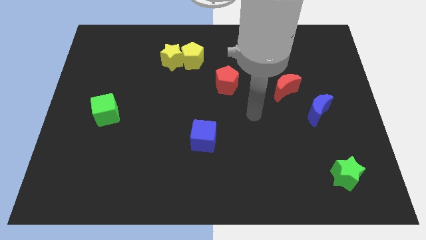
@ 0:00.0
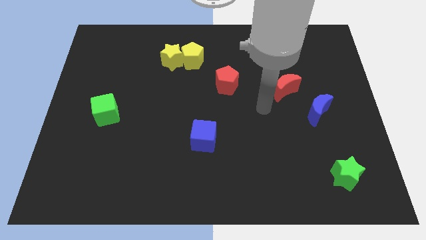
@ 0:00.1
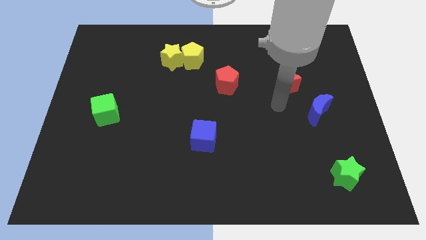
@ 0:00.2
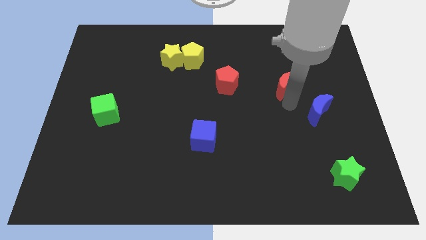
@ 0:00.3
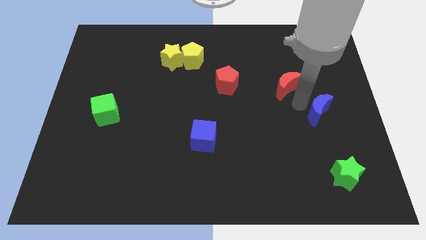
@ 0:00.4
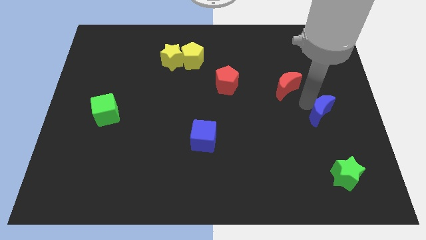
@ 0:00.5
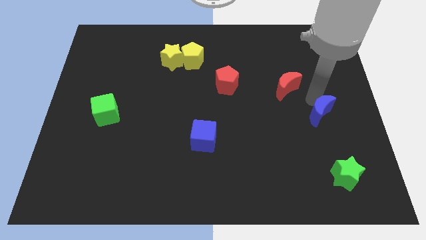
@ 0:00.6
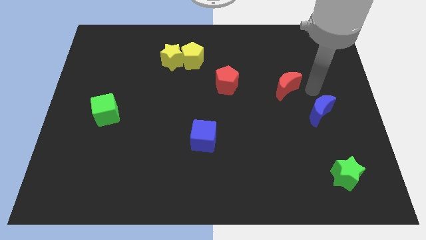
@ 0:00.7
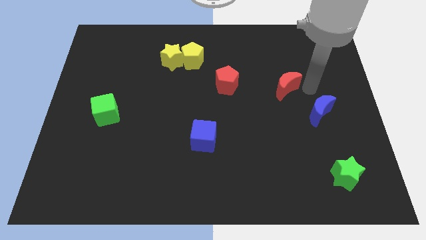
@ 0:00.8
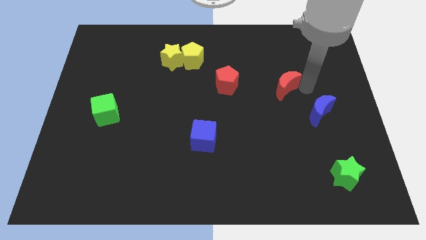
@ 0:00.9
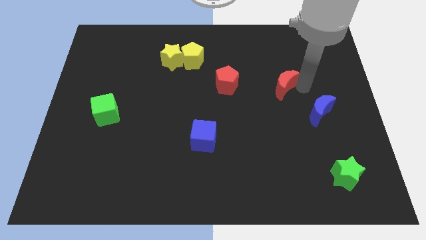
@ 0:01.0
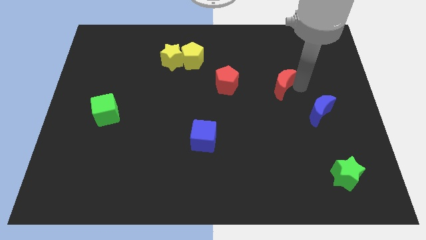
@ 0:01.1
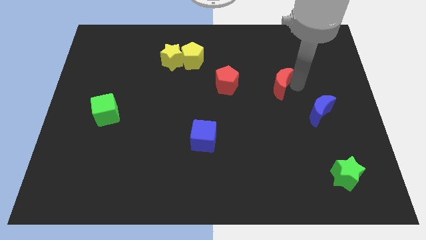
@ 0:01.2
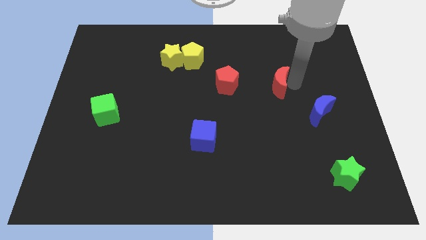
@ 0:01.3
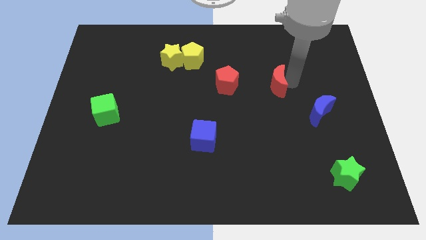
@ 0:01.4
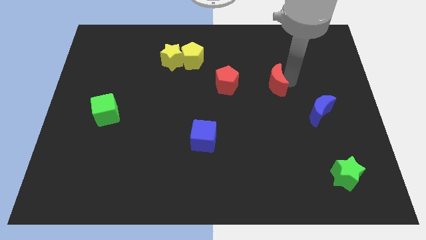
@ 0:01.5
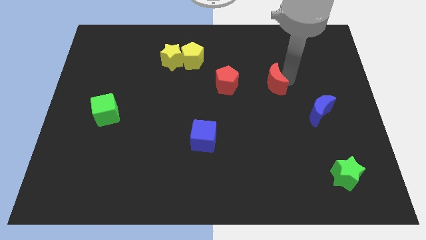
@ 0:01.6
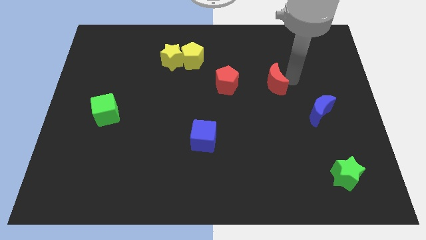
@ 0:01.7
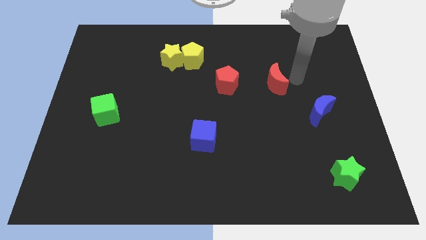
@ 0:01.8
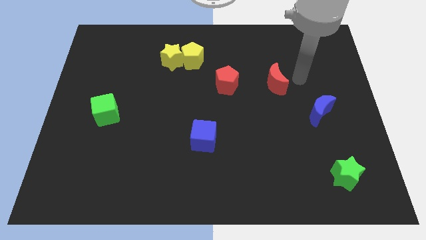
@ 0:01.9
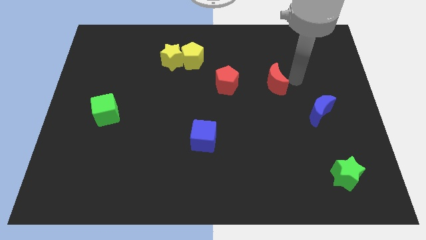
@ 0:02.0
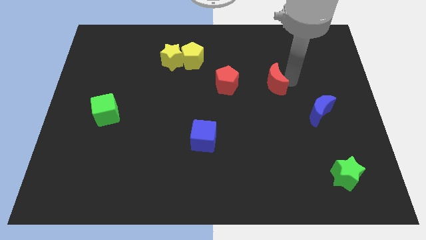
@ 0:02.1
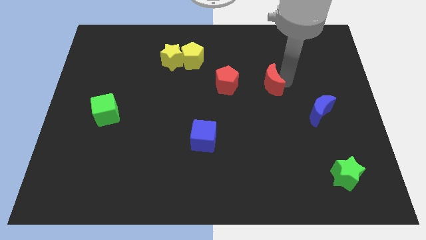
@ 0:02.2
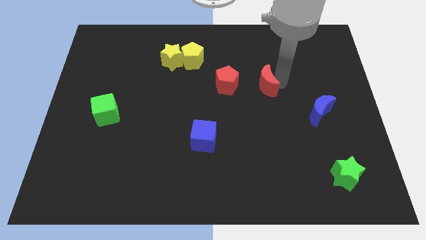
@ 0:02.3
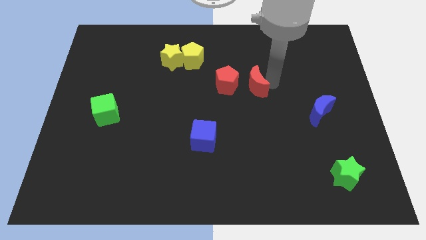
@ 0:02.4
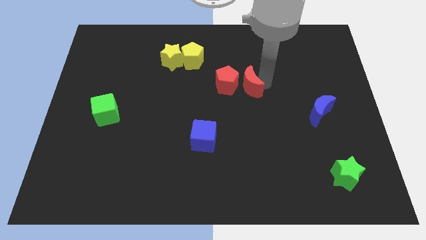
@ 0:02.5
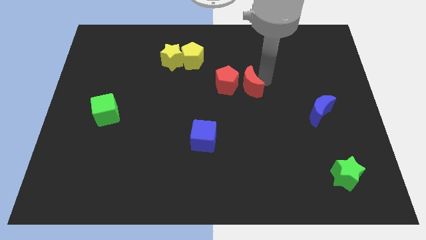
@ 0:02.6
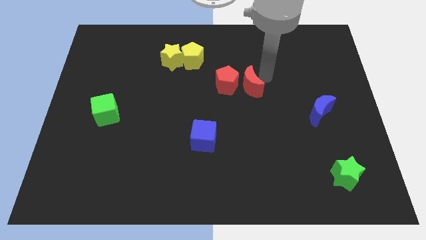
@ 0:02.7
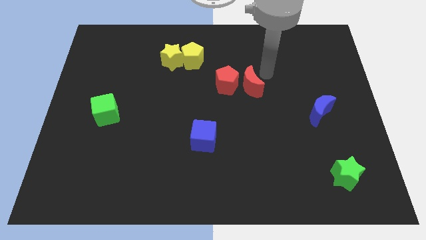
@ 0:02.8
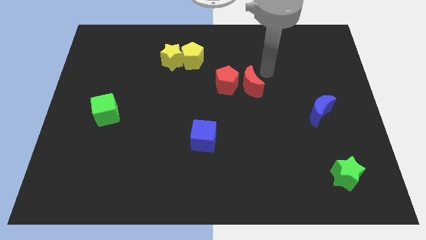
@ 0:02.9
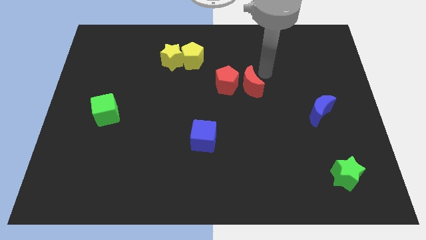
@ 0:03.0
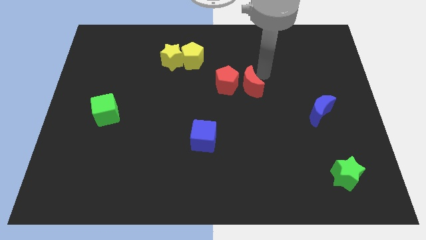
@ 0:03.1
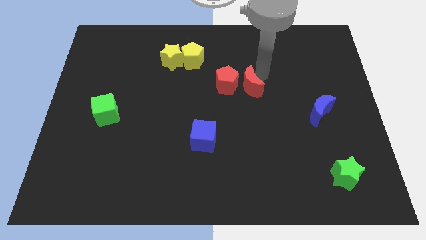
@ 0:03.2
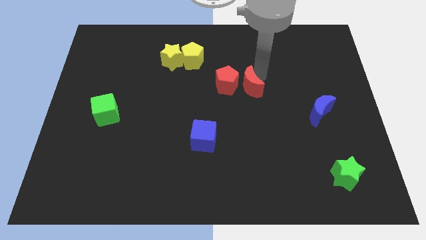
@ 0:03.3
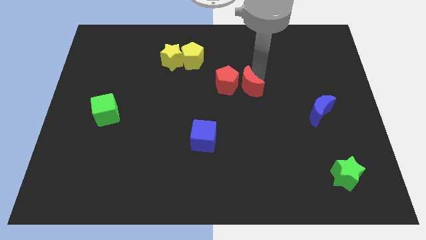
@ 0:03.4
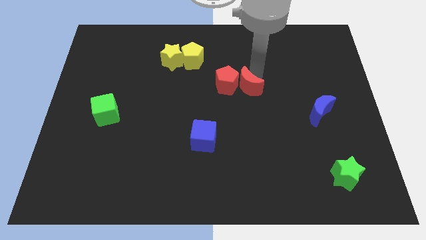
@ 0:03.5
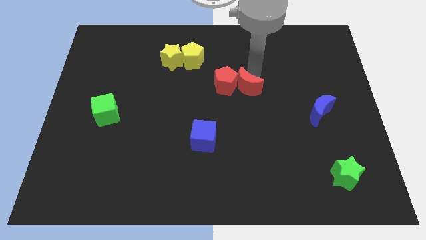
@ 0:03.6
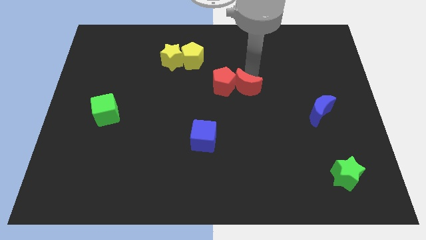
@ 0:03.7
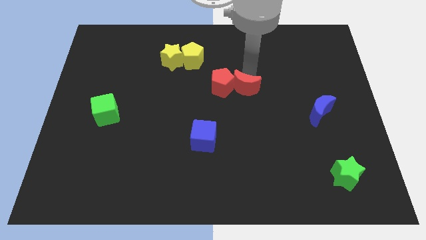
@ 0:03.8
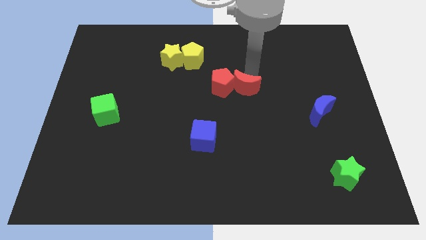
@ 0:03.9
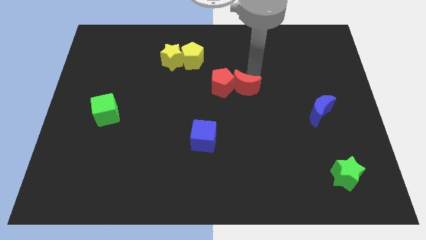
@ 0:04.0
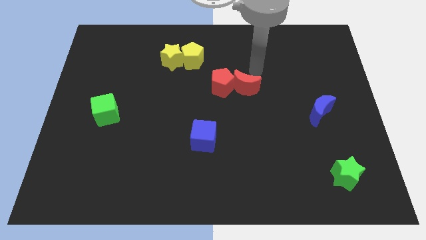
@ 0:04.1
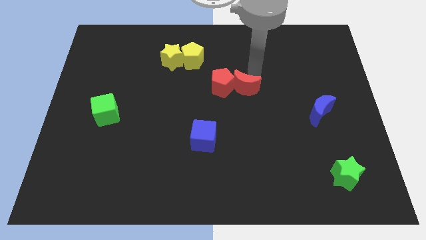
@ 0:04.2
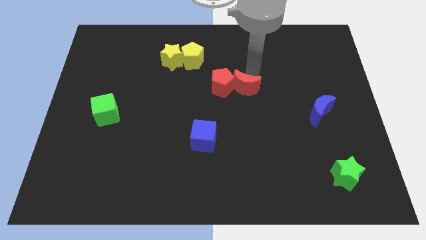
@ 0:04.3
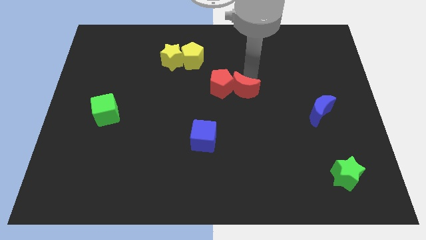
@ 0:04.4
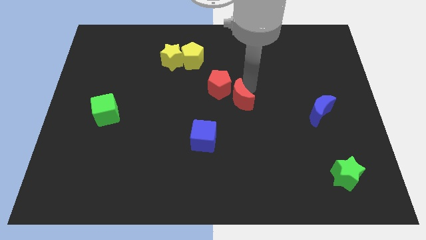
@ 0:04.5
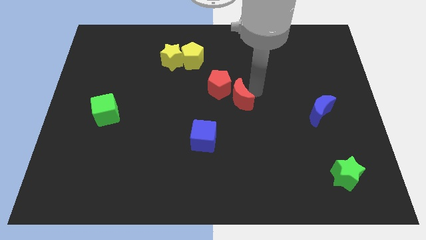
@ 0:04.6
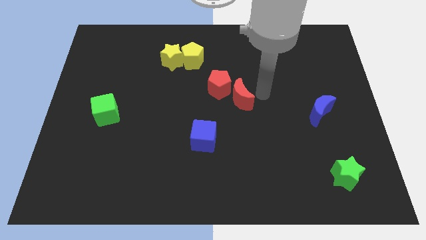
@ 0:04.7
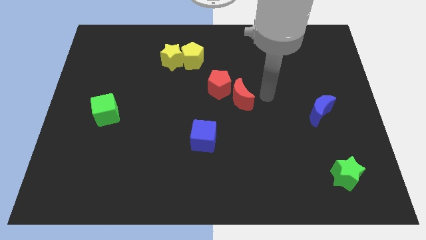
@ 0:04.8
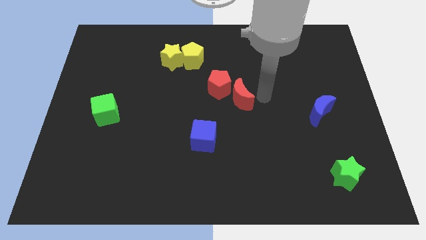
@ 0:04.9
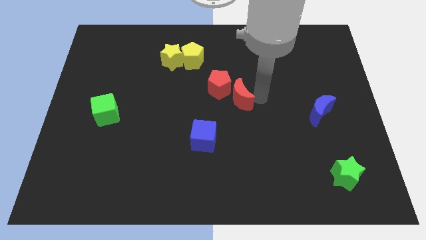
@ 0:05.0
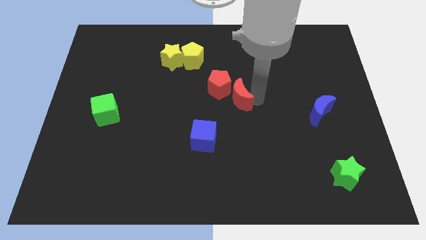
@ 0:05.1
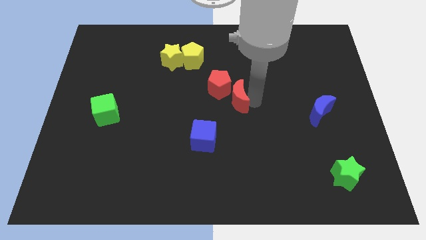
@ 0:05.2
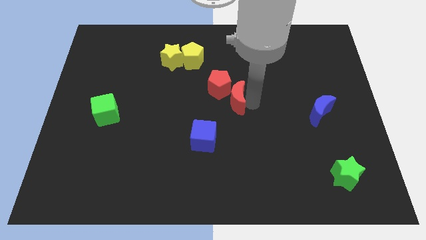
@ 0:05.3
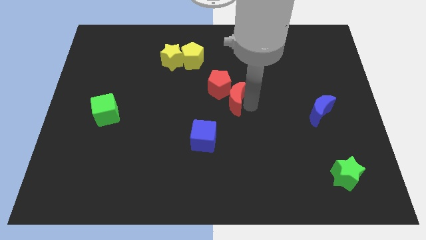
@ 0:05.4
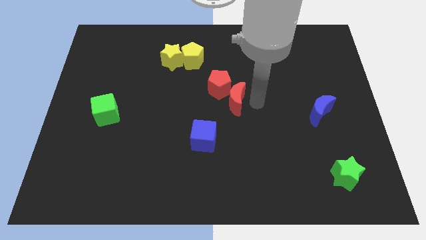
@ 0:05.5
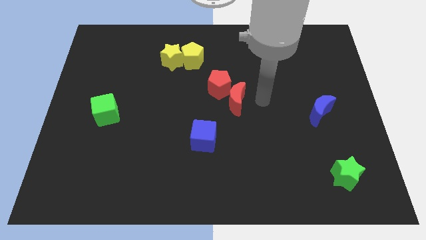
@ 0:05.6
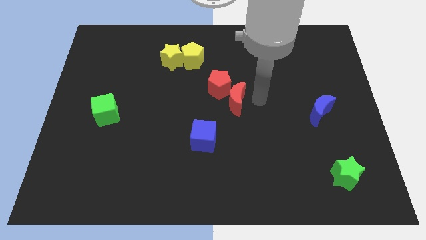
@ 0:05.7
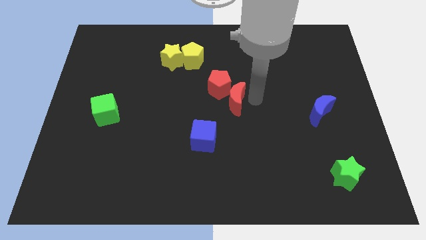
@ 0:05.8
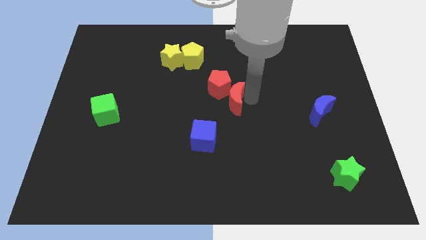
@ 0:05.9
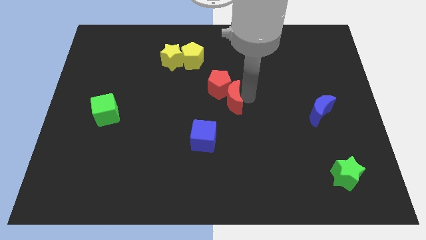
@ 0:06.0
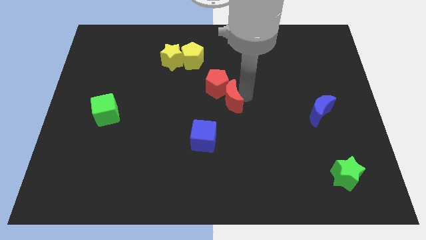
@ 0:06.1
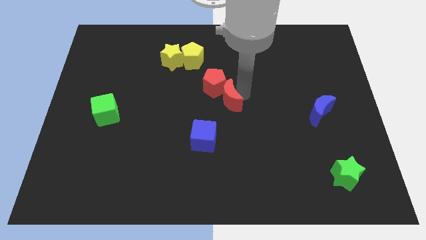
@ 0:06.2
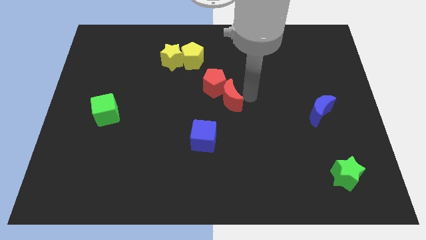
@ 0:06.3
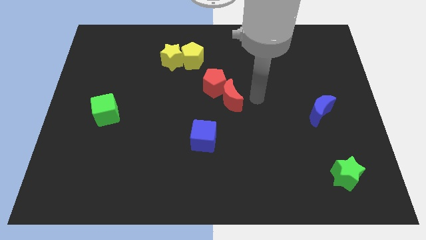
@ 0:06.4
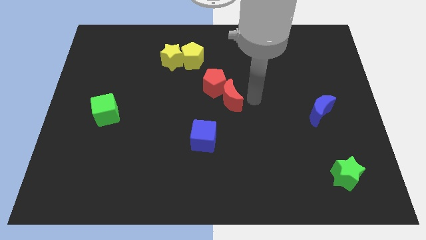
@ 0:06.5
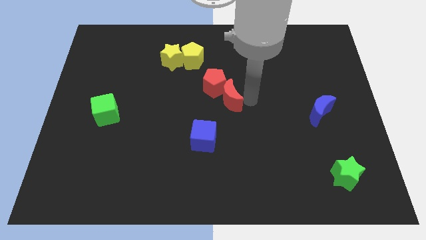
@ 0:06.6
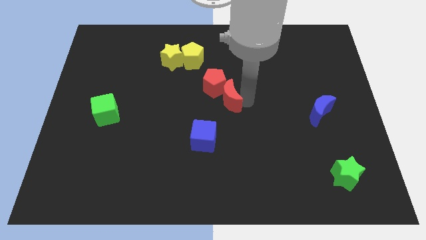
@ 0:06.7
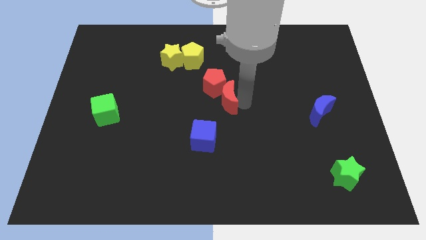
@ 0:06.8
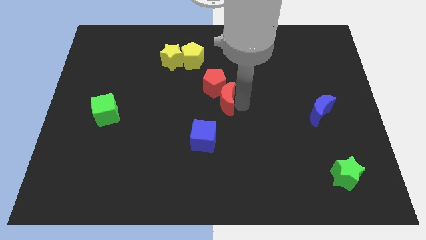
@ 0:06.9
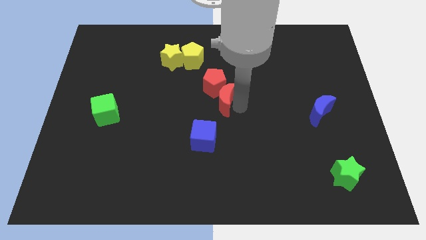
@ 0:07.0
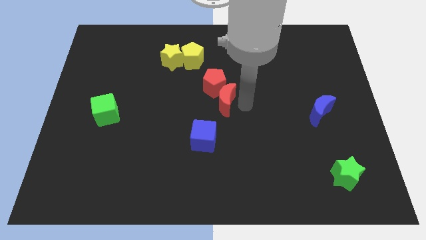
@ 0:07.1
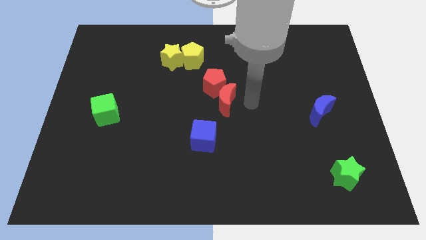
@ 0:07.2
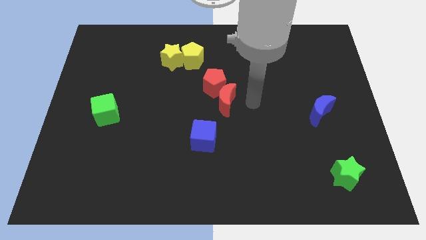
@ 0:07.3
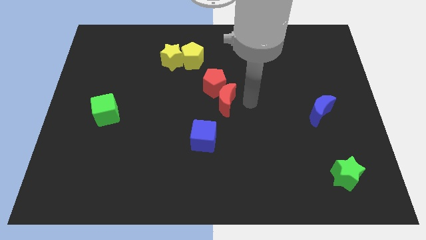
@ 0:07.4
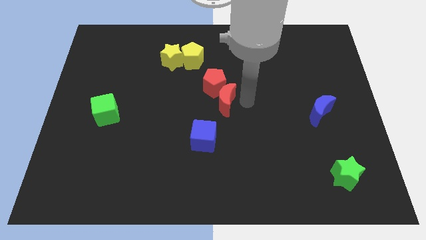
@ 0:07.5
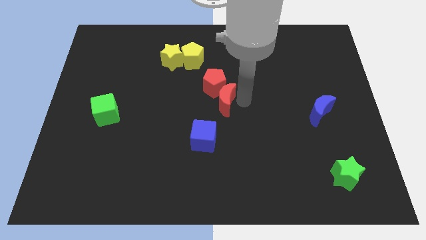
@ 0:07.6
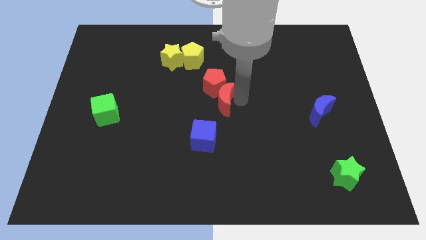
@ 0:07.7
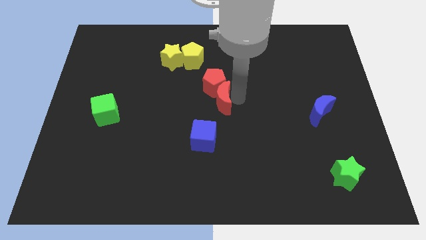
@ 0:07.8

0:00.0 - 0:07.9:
push the red moon diagonally down and to the left of the red pentagon

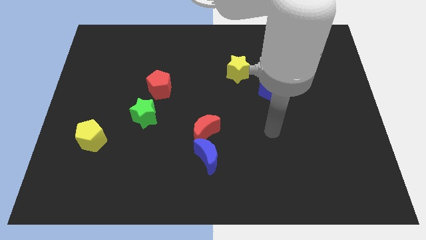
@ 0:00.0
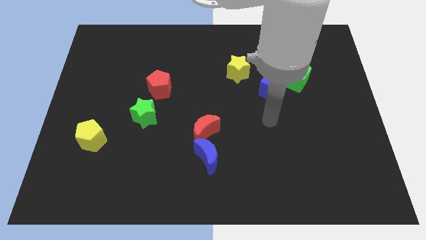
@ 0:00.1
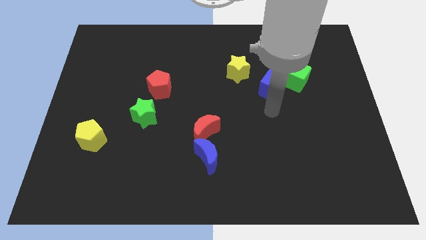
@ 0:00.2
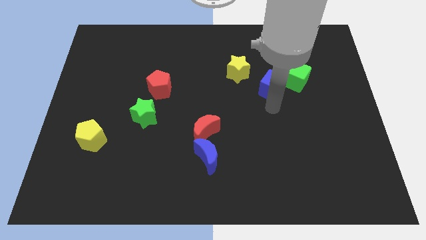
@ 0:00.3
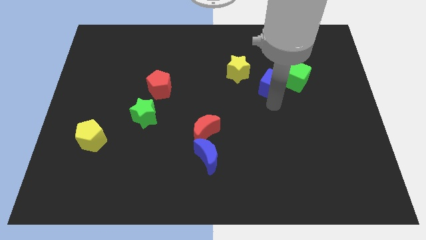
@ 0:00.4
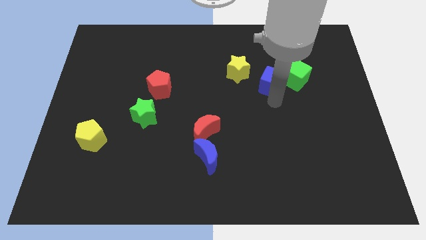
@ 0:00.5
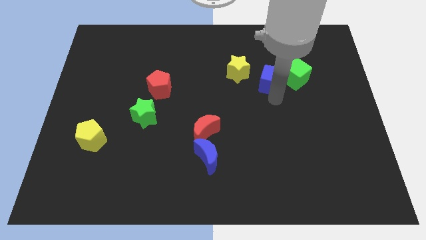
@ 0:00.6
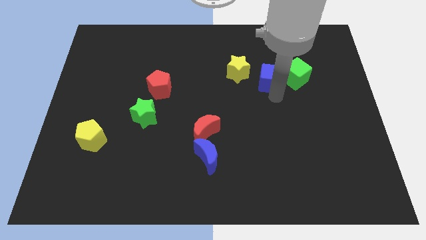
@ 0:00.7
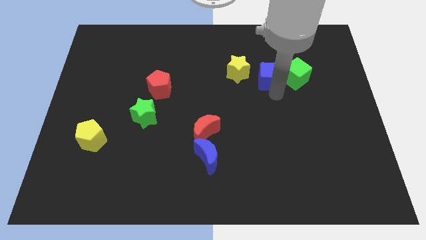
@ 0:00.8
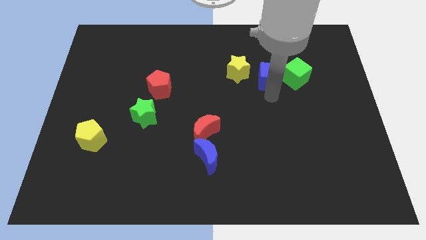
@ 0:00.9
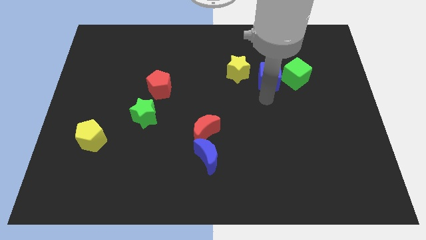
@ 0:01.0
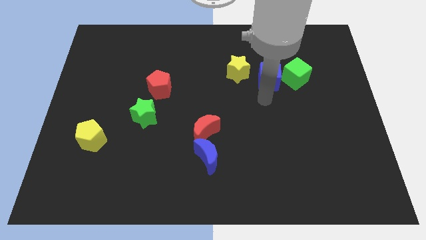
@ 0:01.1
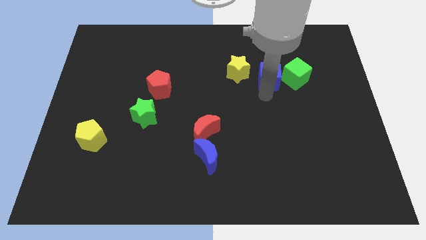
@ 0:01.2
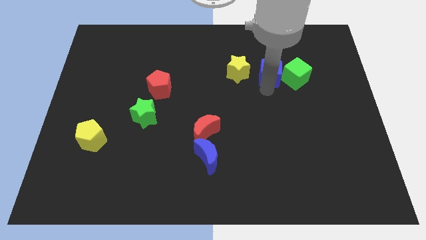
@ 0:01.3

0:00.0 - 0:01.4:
push the blue cube to the top left of the green cube
